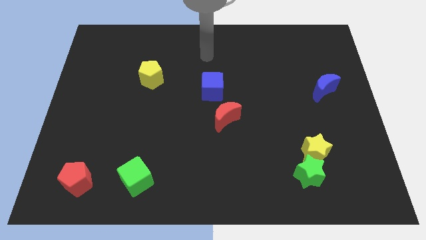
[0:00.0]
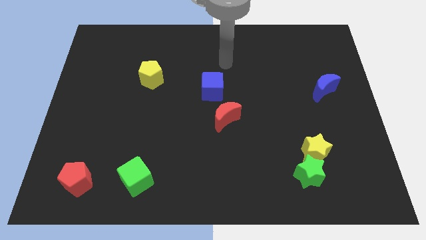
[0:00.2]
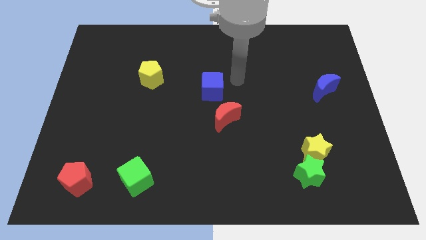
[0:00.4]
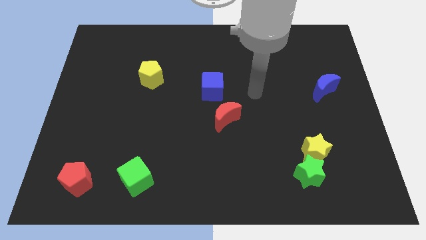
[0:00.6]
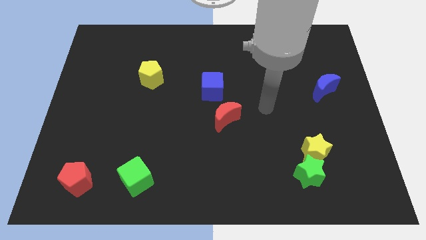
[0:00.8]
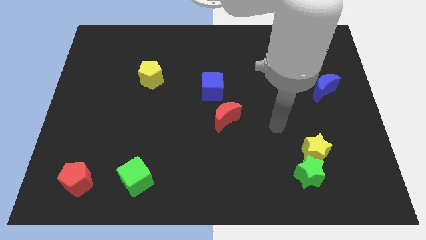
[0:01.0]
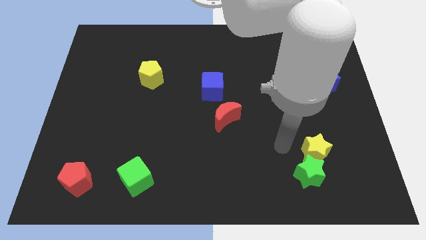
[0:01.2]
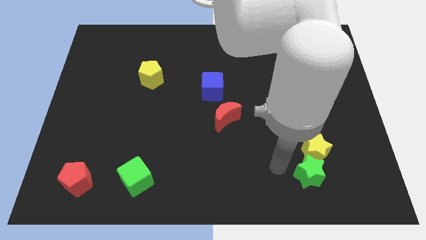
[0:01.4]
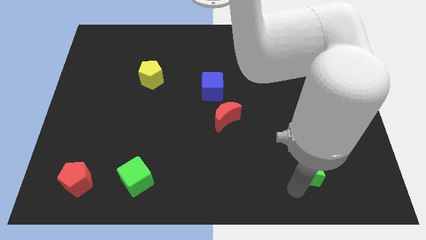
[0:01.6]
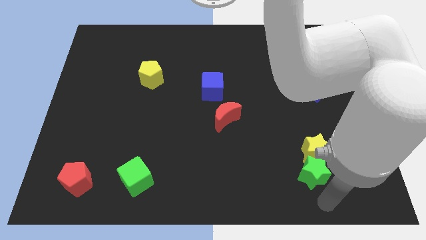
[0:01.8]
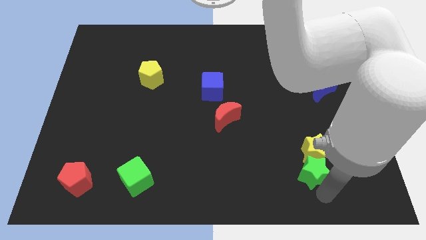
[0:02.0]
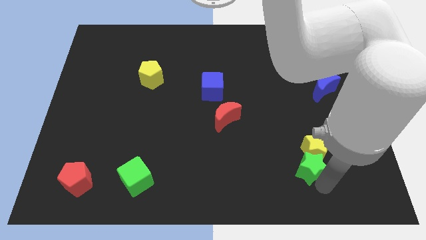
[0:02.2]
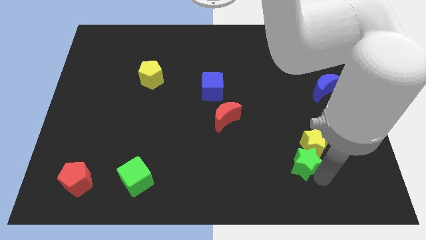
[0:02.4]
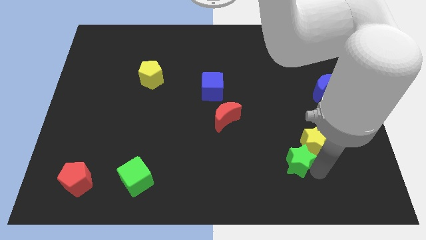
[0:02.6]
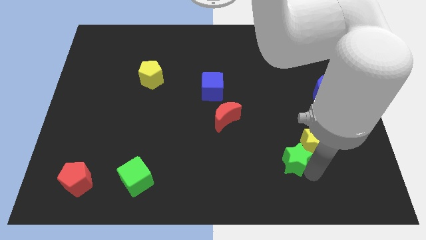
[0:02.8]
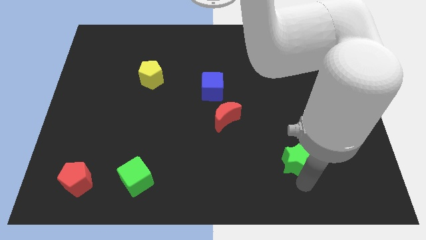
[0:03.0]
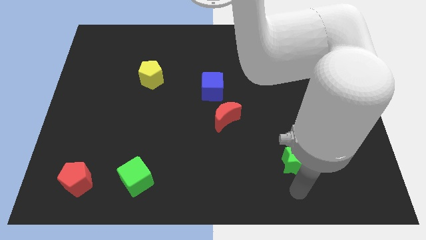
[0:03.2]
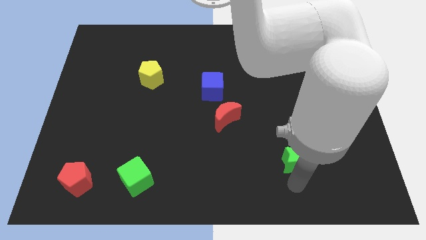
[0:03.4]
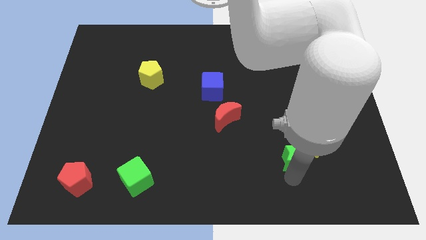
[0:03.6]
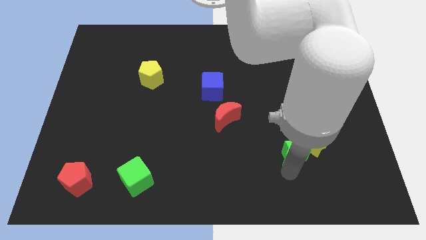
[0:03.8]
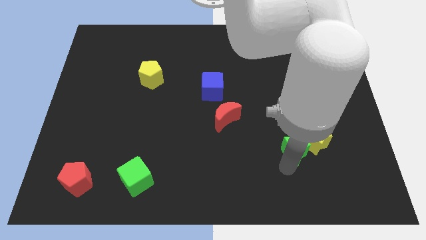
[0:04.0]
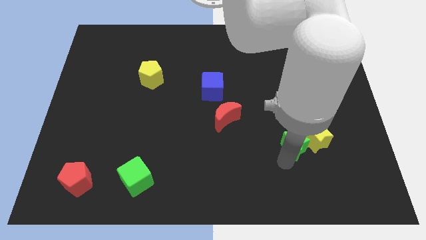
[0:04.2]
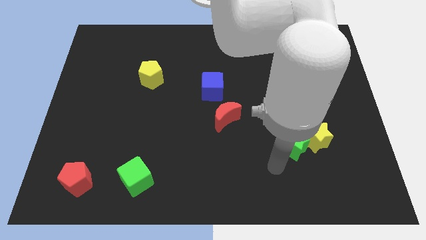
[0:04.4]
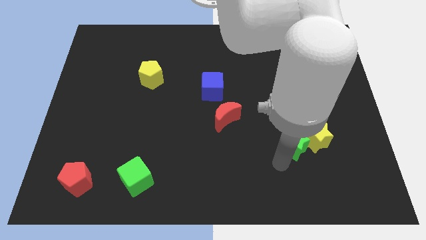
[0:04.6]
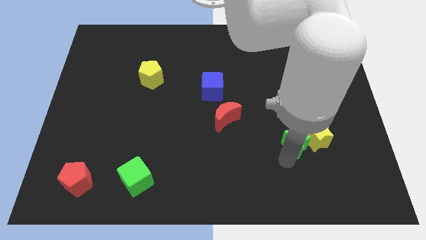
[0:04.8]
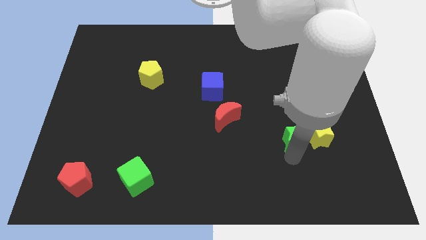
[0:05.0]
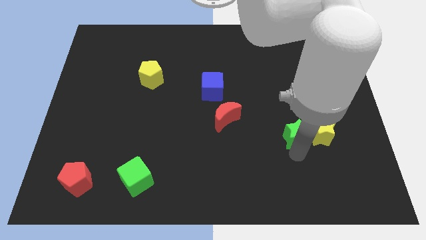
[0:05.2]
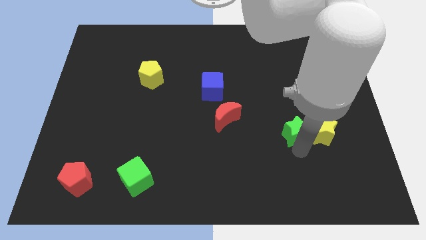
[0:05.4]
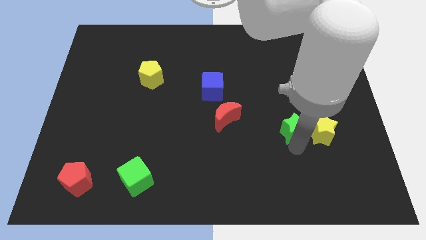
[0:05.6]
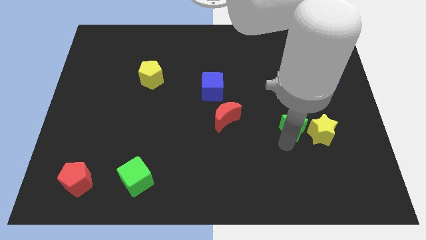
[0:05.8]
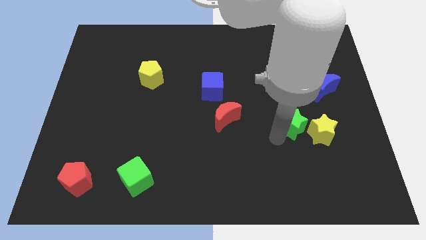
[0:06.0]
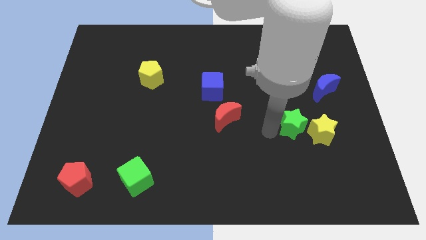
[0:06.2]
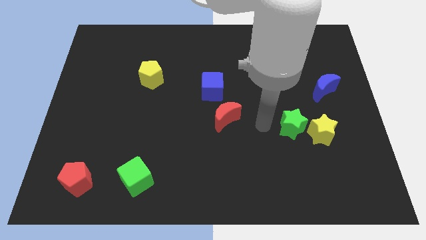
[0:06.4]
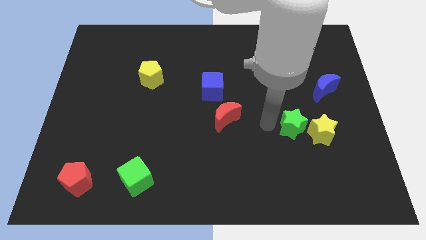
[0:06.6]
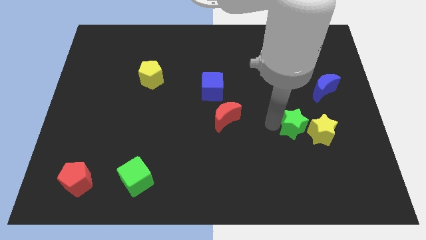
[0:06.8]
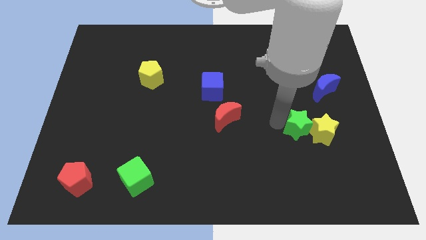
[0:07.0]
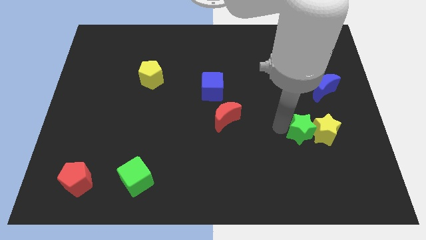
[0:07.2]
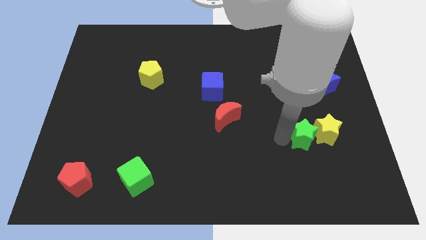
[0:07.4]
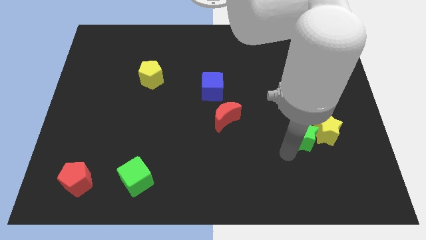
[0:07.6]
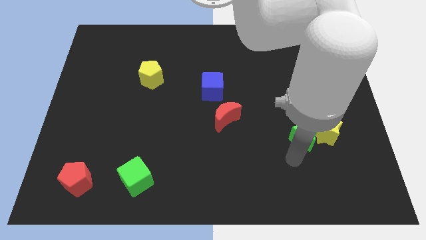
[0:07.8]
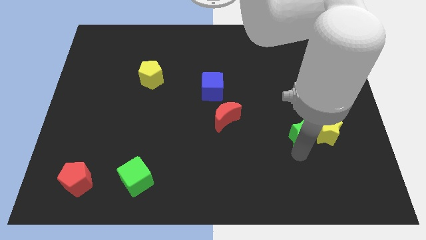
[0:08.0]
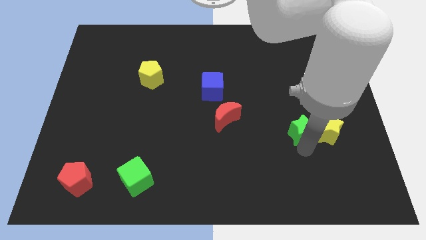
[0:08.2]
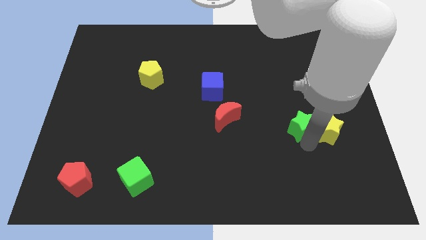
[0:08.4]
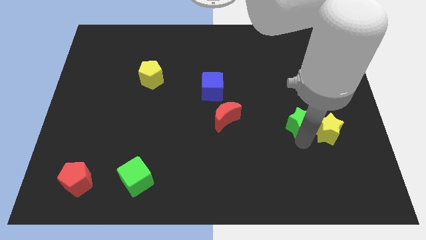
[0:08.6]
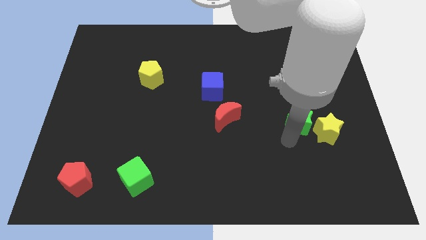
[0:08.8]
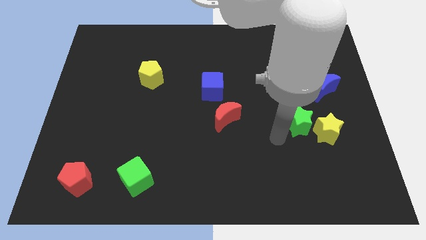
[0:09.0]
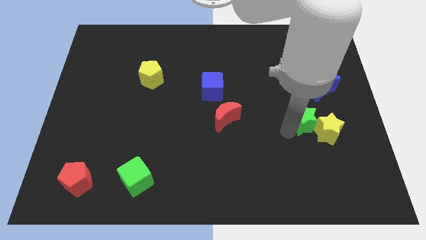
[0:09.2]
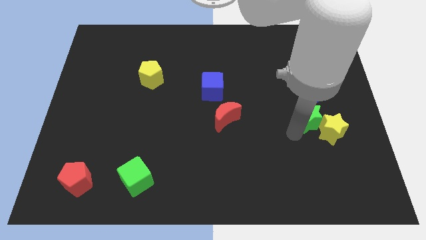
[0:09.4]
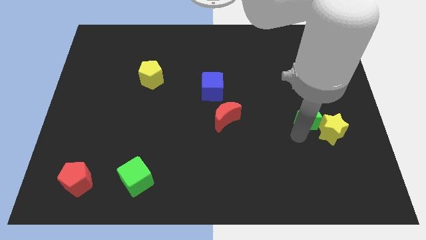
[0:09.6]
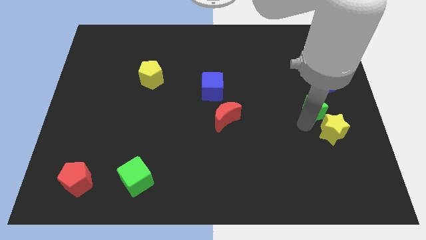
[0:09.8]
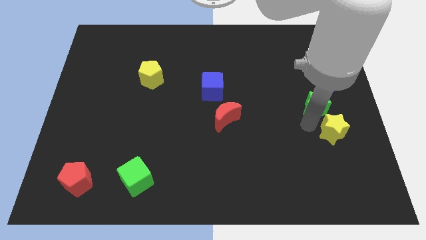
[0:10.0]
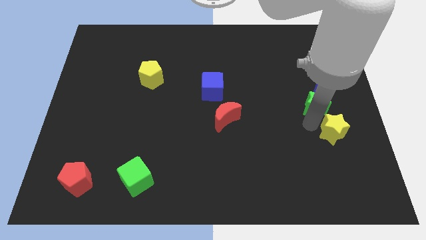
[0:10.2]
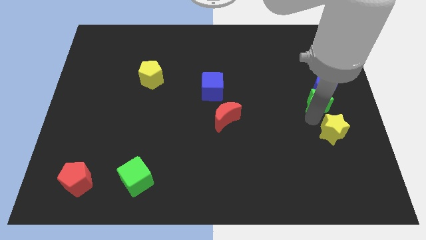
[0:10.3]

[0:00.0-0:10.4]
slide the green star close to the blue moon

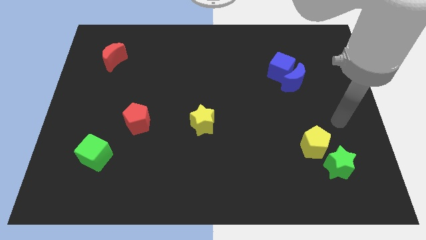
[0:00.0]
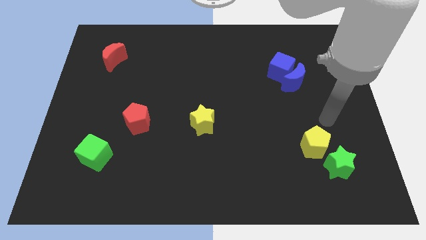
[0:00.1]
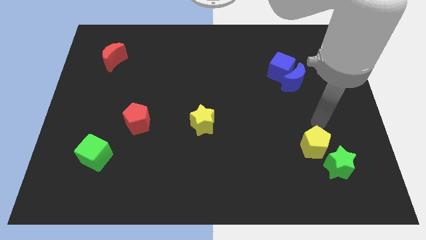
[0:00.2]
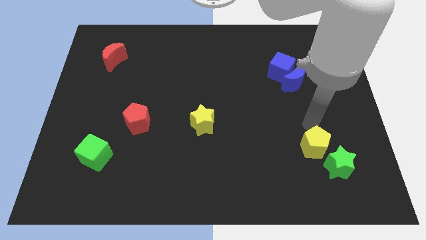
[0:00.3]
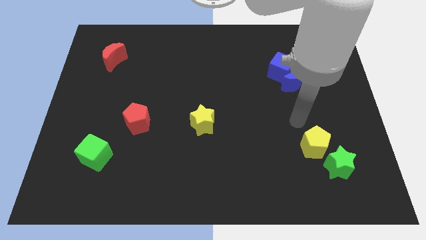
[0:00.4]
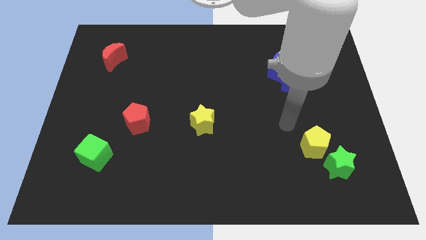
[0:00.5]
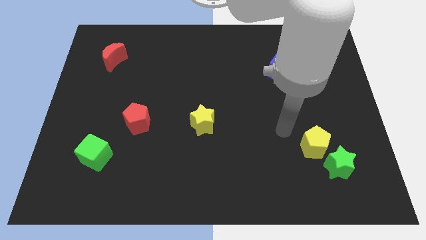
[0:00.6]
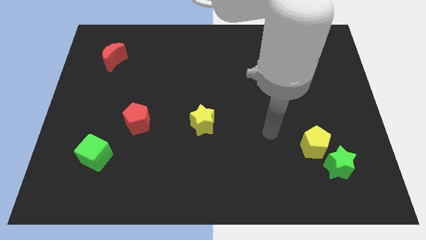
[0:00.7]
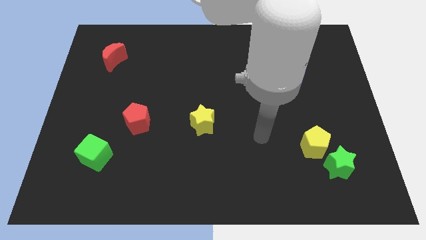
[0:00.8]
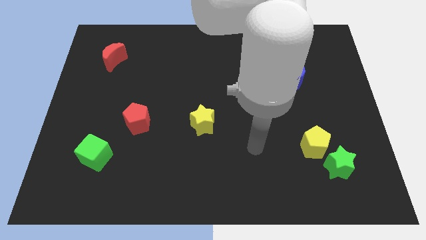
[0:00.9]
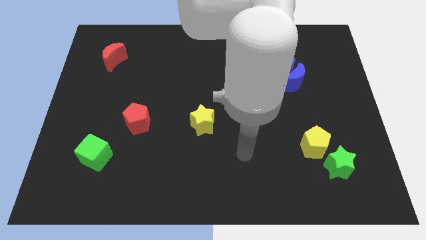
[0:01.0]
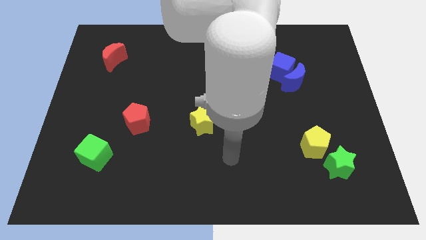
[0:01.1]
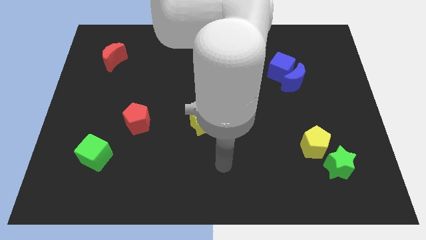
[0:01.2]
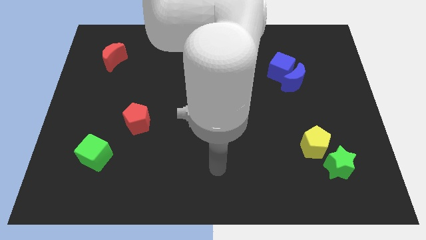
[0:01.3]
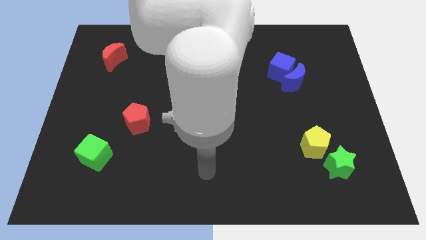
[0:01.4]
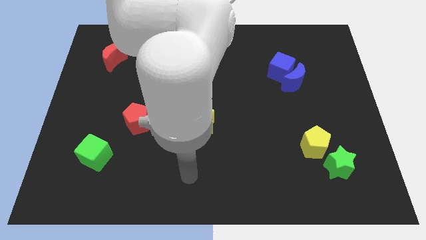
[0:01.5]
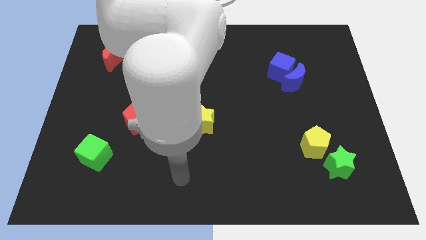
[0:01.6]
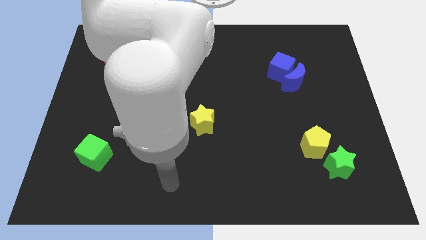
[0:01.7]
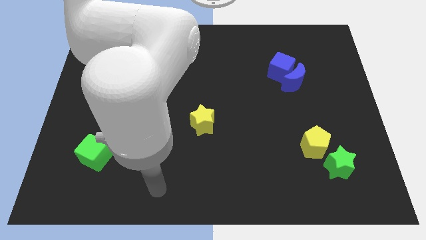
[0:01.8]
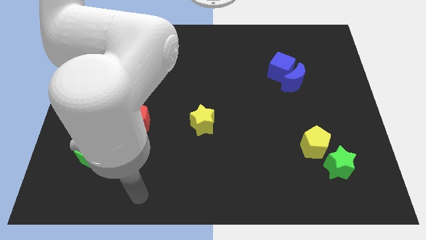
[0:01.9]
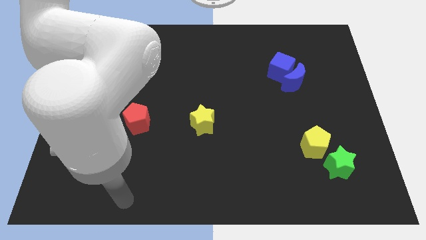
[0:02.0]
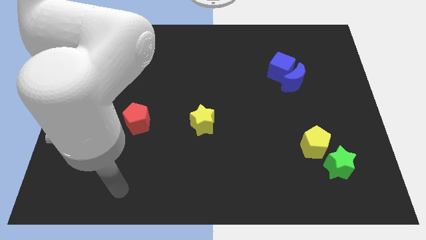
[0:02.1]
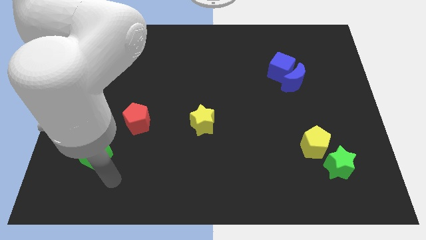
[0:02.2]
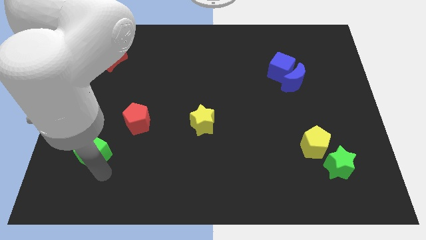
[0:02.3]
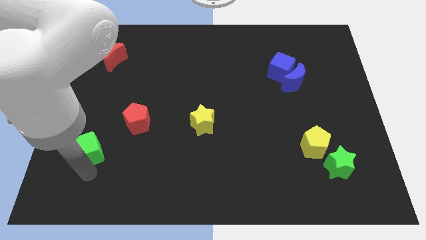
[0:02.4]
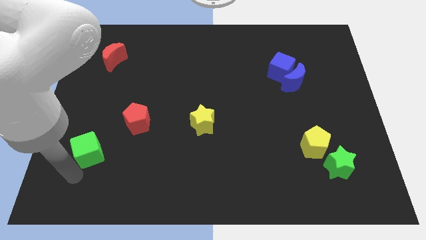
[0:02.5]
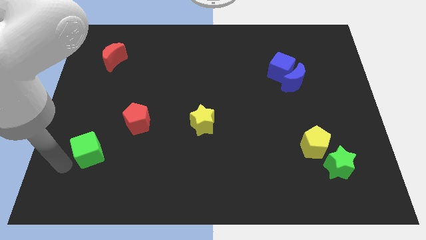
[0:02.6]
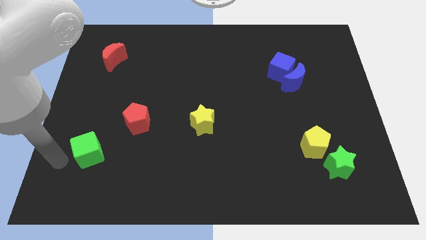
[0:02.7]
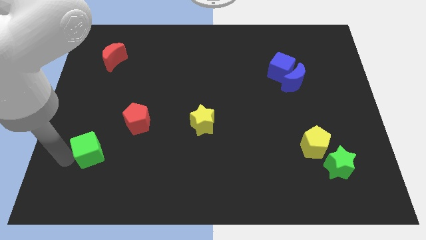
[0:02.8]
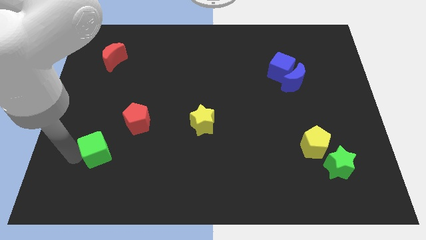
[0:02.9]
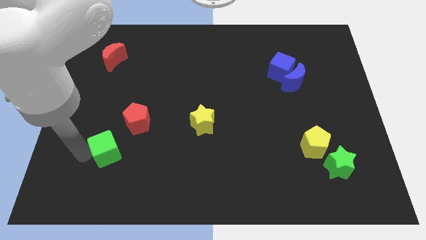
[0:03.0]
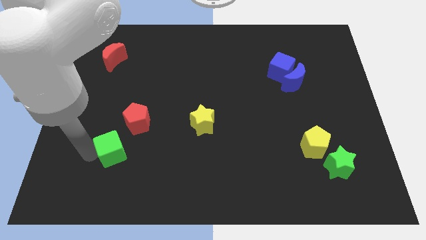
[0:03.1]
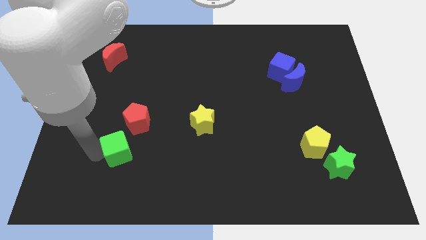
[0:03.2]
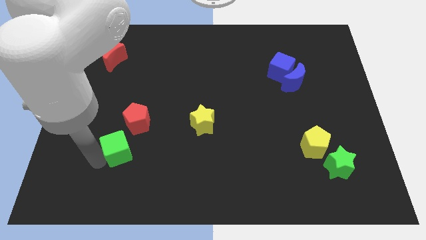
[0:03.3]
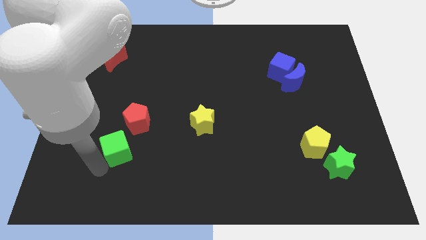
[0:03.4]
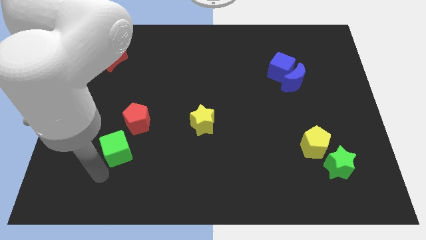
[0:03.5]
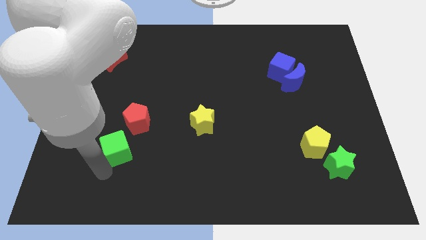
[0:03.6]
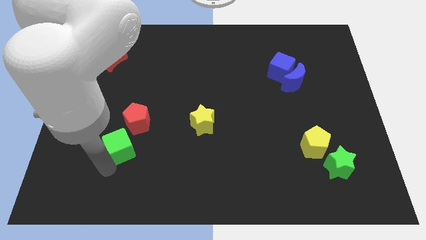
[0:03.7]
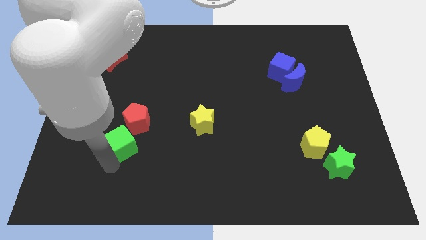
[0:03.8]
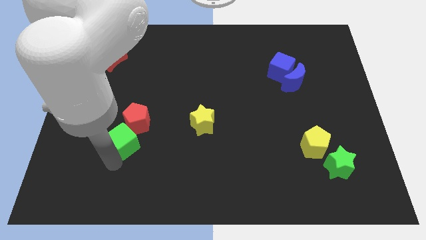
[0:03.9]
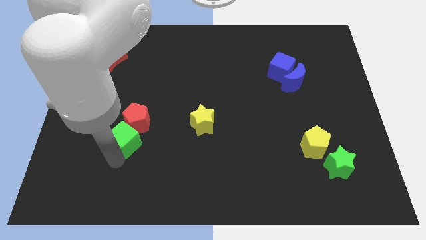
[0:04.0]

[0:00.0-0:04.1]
push the green cube towards the red pentagon
